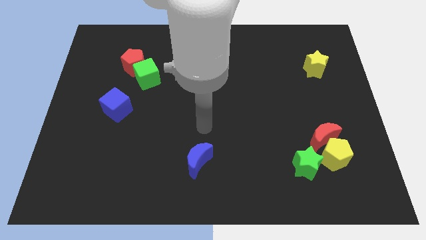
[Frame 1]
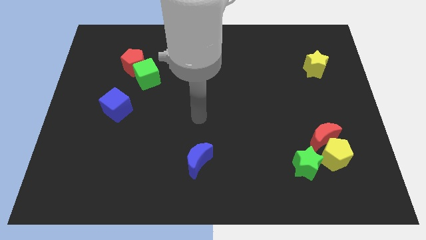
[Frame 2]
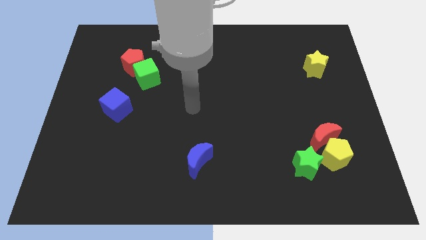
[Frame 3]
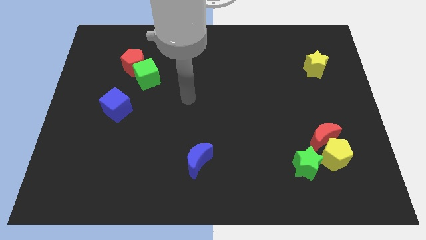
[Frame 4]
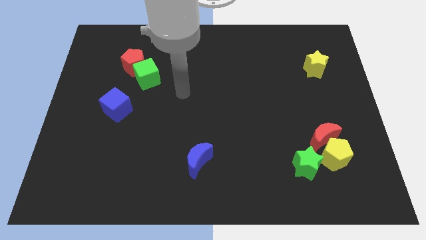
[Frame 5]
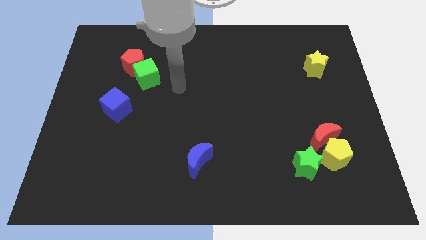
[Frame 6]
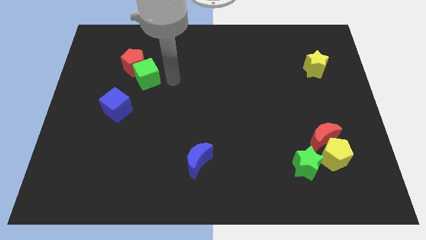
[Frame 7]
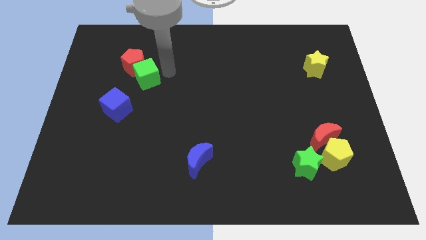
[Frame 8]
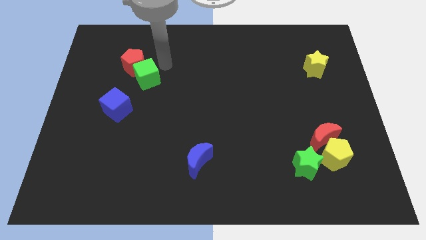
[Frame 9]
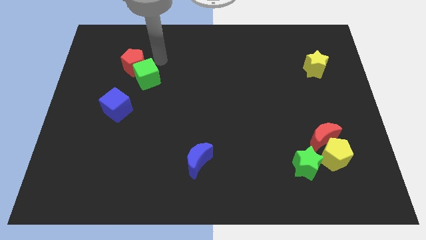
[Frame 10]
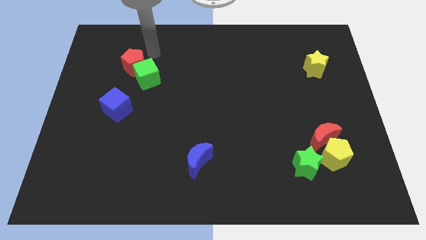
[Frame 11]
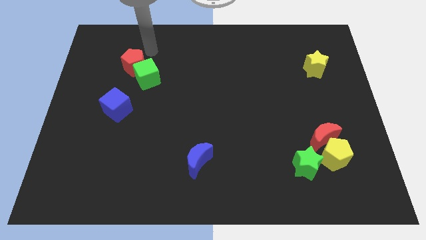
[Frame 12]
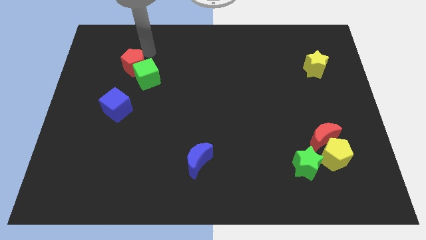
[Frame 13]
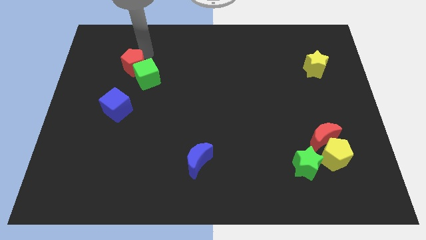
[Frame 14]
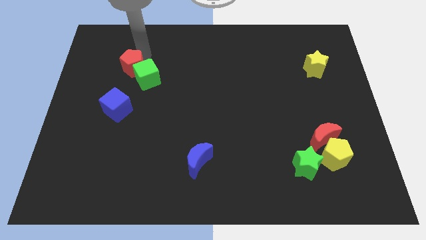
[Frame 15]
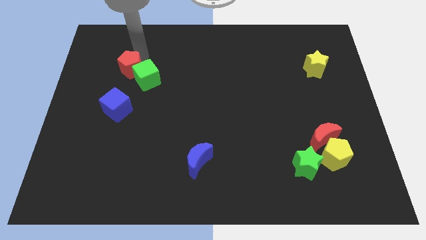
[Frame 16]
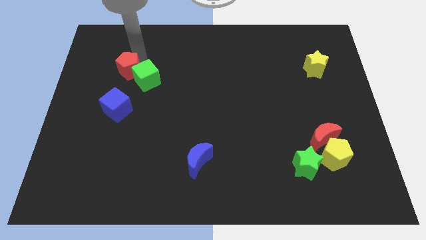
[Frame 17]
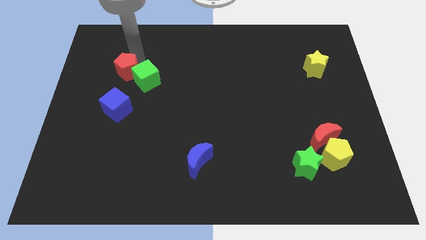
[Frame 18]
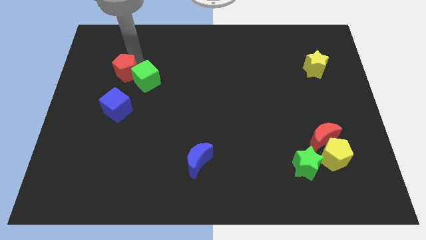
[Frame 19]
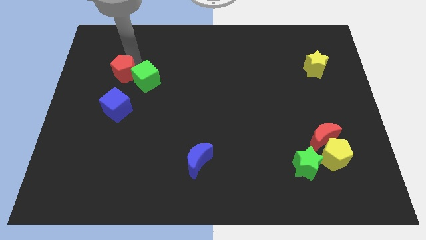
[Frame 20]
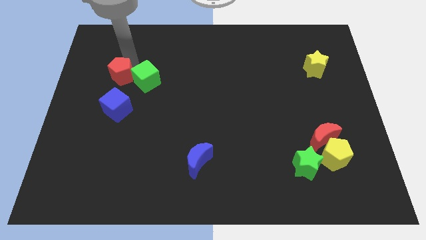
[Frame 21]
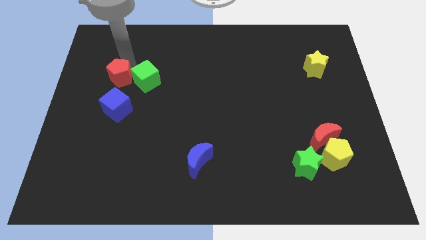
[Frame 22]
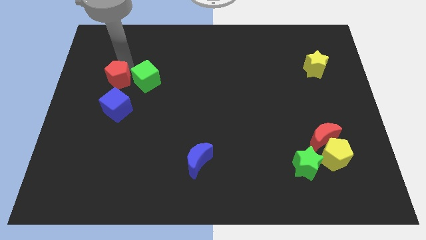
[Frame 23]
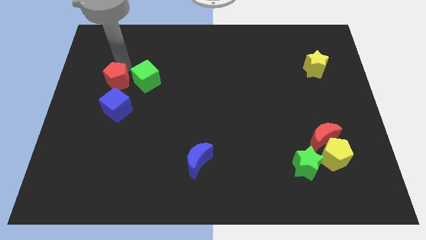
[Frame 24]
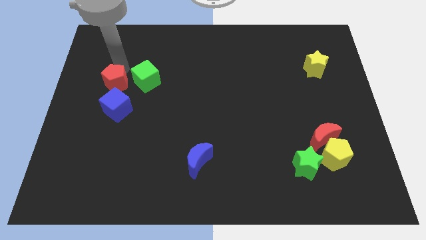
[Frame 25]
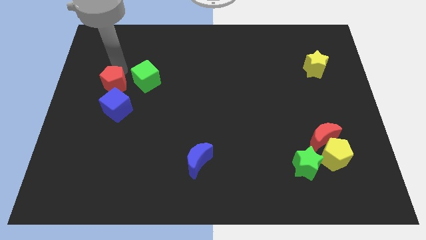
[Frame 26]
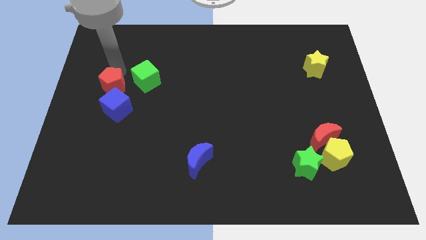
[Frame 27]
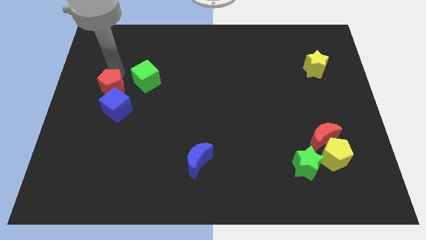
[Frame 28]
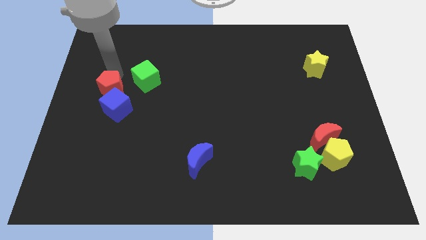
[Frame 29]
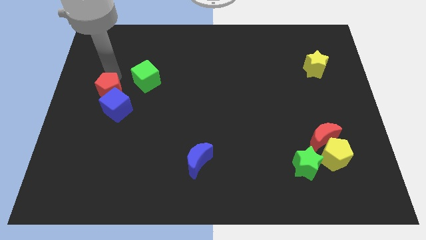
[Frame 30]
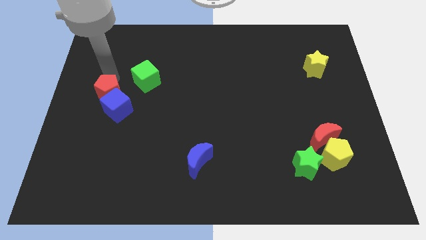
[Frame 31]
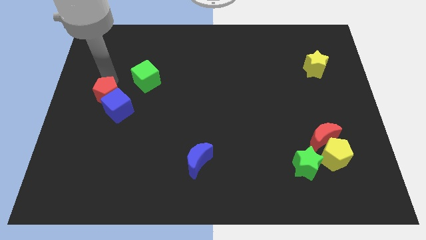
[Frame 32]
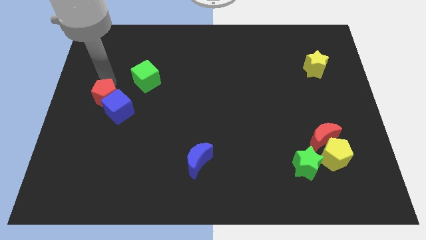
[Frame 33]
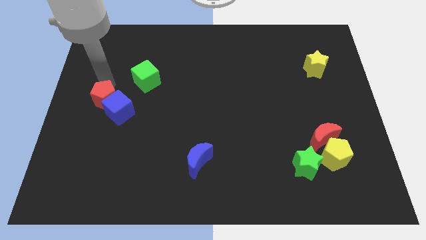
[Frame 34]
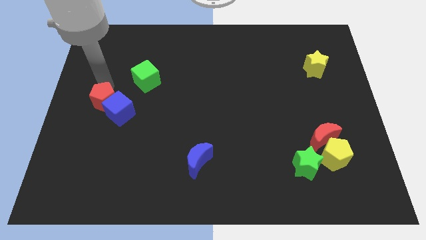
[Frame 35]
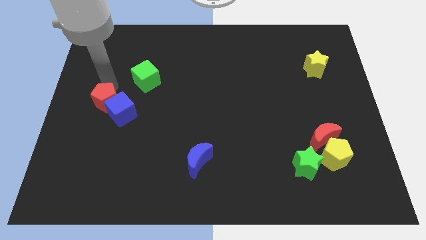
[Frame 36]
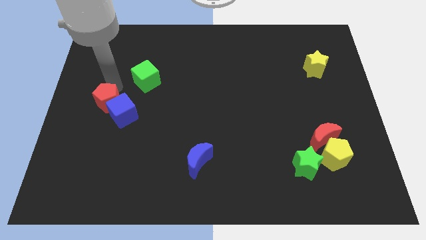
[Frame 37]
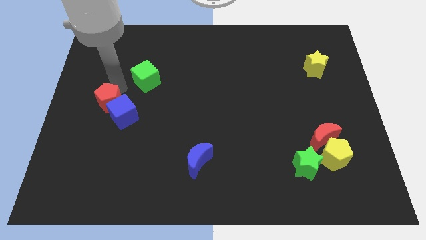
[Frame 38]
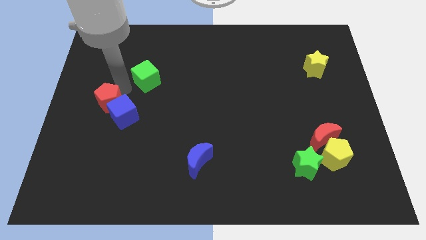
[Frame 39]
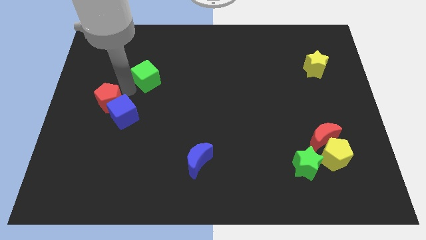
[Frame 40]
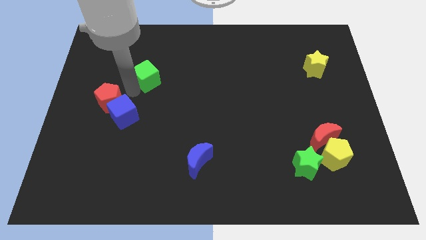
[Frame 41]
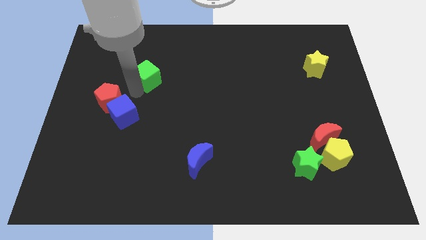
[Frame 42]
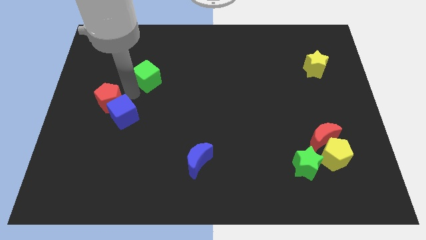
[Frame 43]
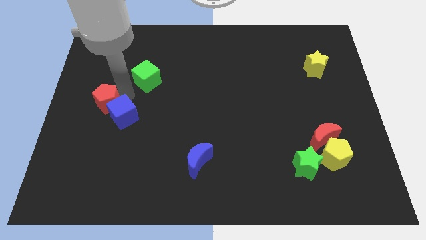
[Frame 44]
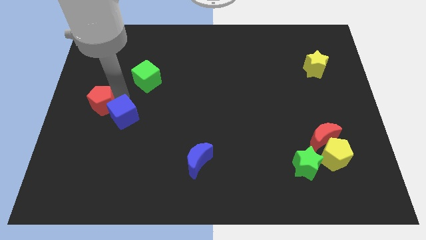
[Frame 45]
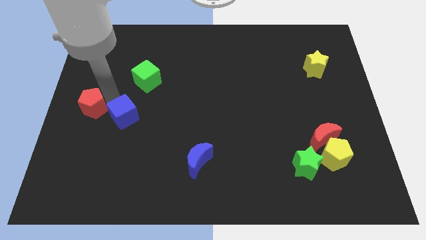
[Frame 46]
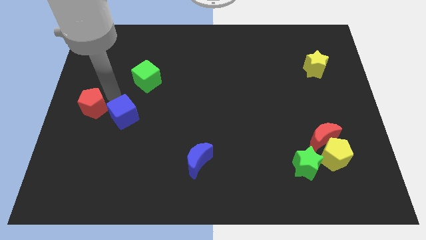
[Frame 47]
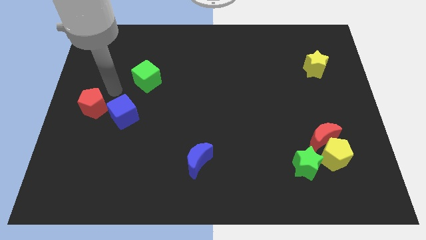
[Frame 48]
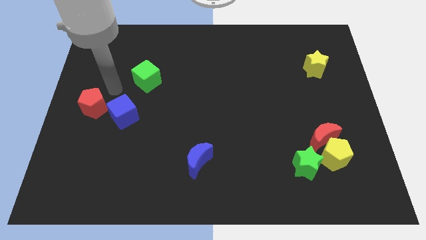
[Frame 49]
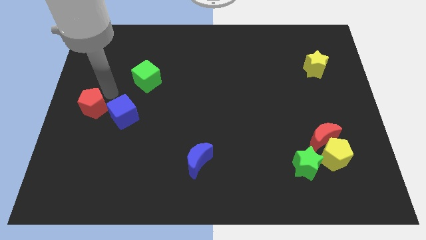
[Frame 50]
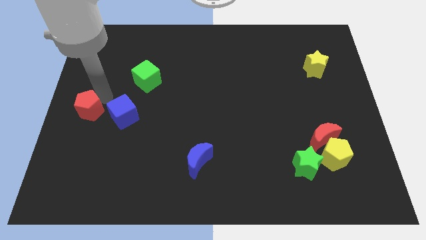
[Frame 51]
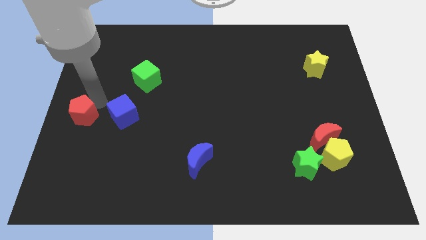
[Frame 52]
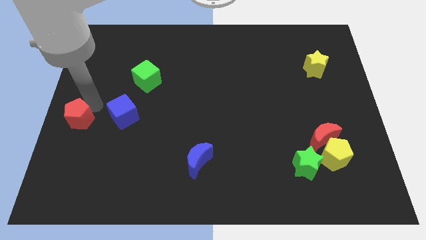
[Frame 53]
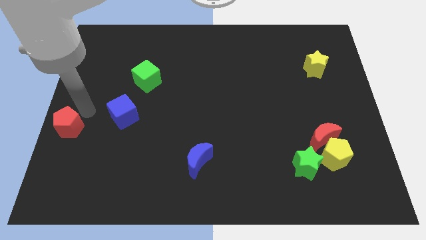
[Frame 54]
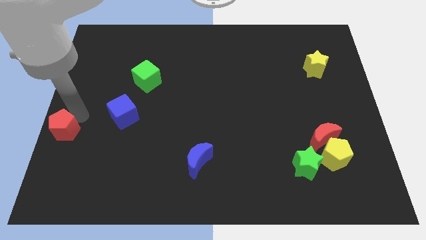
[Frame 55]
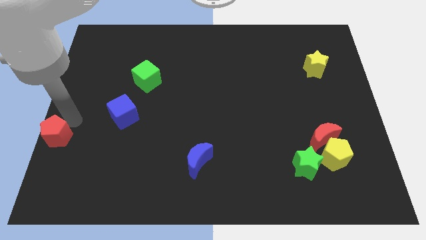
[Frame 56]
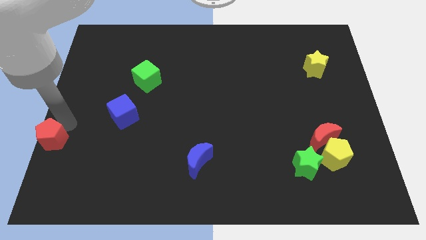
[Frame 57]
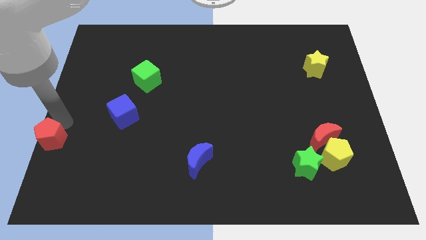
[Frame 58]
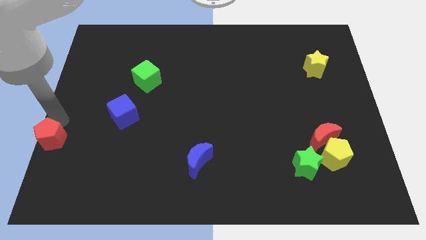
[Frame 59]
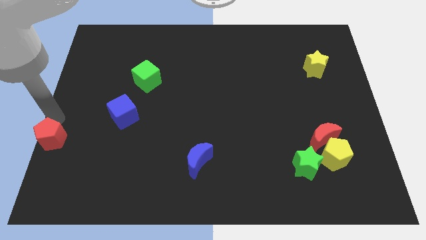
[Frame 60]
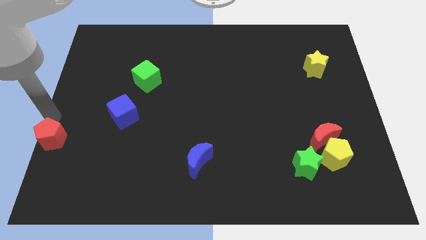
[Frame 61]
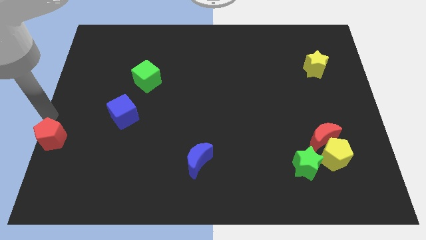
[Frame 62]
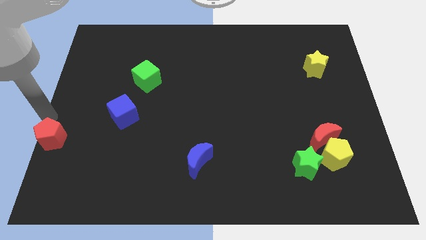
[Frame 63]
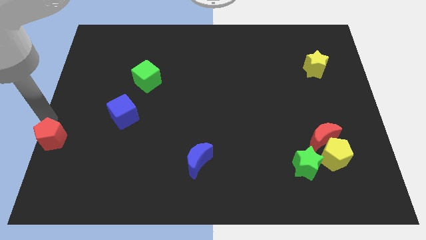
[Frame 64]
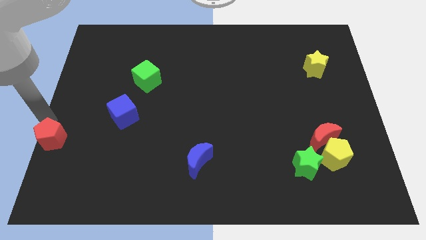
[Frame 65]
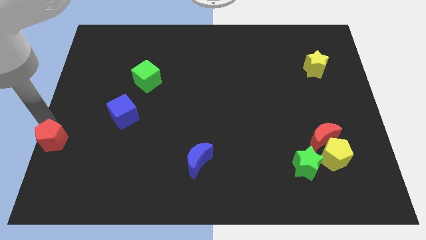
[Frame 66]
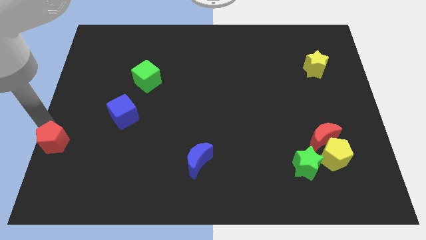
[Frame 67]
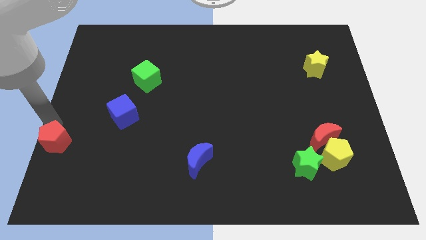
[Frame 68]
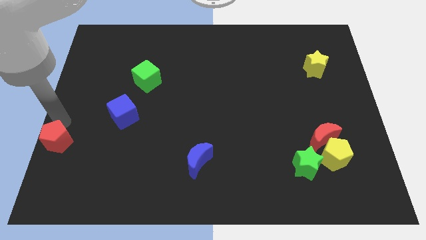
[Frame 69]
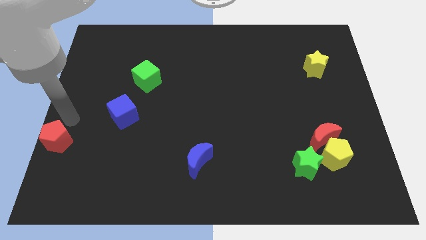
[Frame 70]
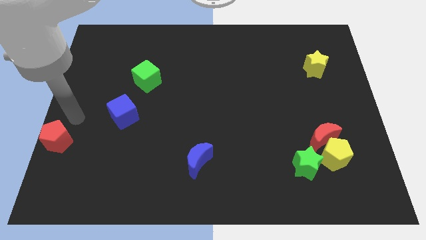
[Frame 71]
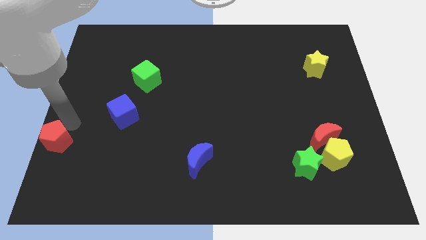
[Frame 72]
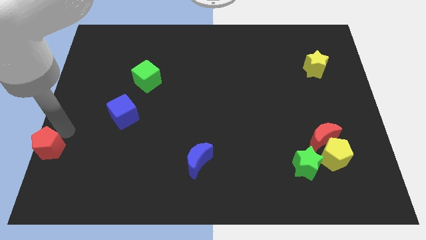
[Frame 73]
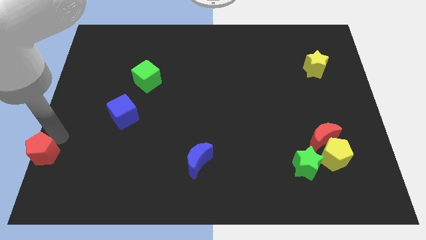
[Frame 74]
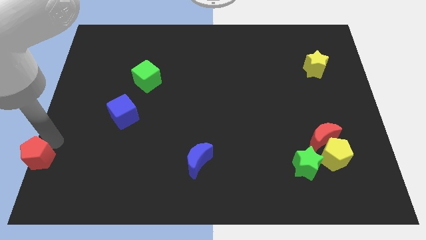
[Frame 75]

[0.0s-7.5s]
slide the red pentagon to the bottom left

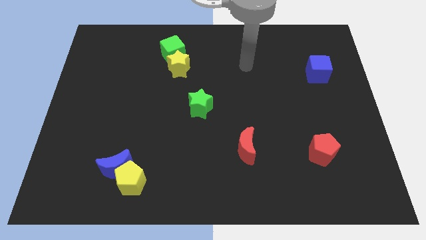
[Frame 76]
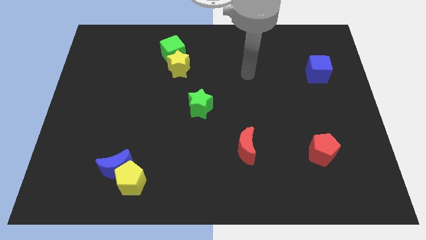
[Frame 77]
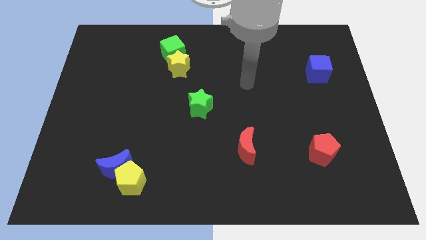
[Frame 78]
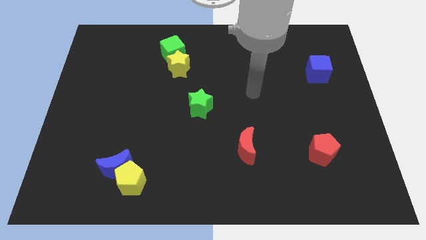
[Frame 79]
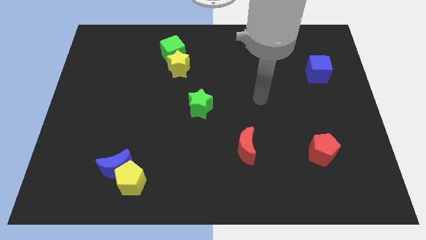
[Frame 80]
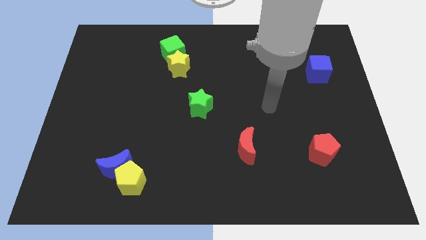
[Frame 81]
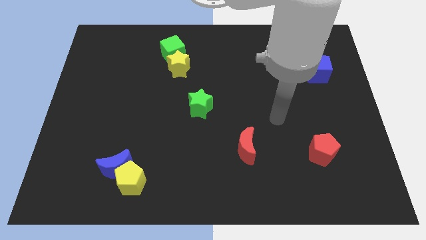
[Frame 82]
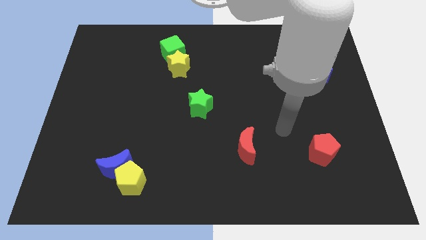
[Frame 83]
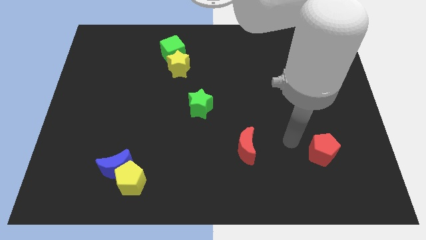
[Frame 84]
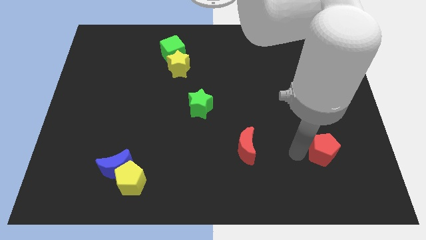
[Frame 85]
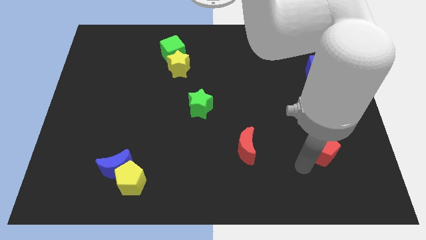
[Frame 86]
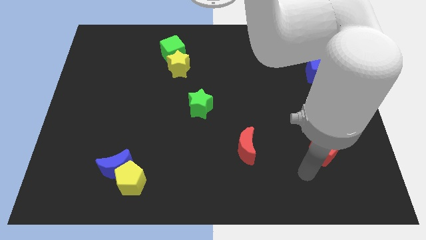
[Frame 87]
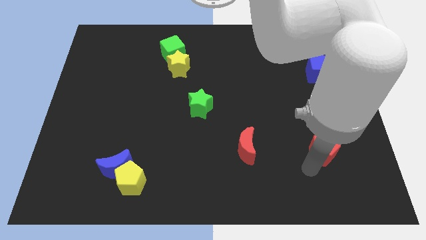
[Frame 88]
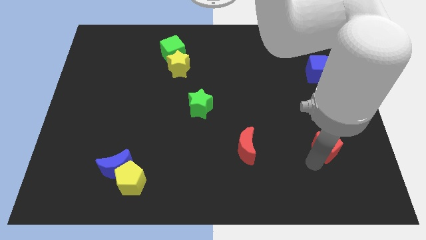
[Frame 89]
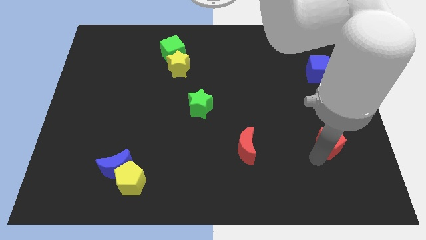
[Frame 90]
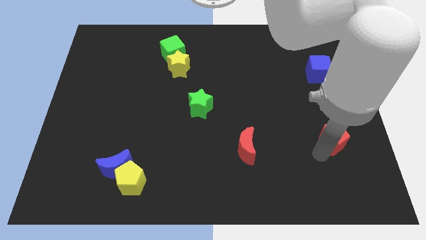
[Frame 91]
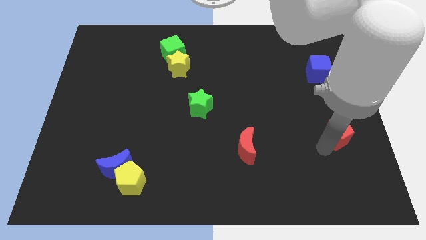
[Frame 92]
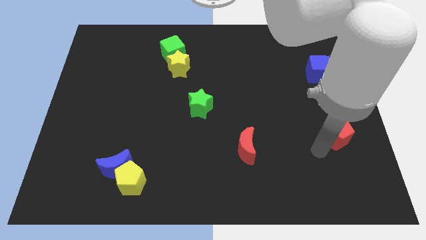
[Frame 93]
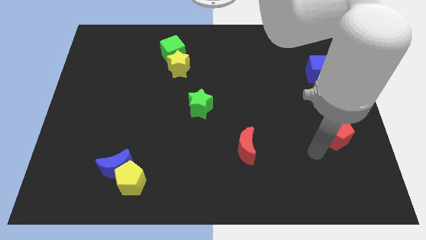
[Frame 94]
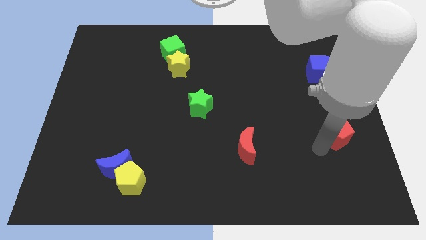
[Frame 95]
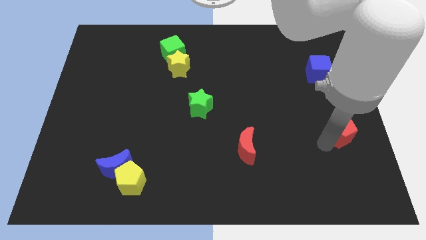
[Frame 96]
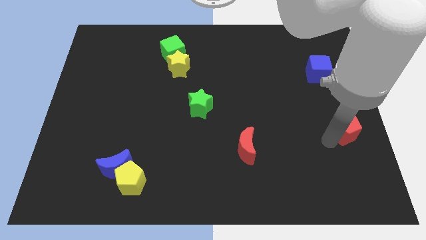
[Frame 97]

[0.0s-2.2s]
push the red pentagon to the right side of the board
